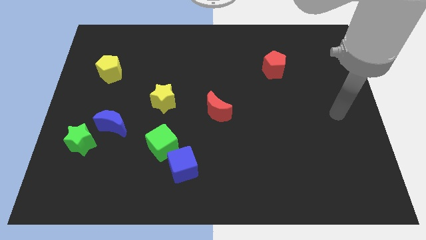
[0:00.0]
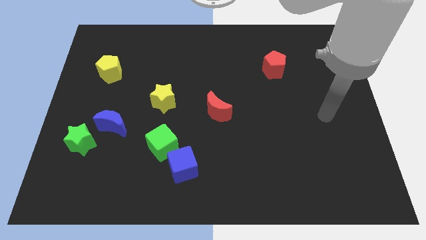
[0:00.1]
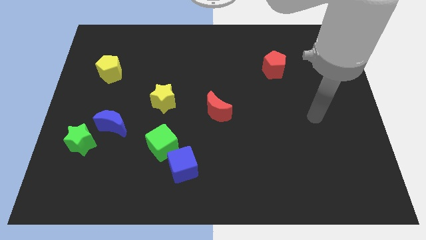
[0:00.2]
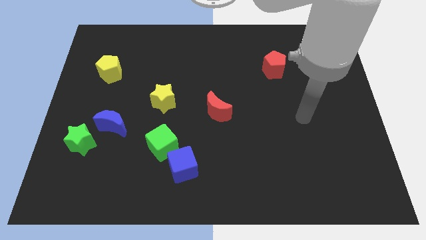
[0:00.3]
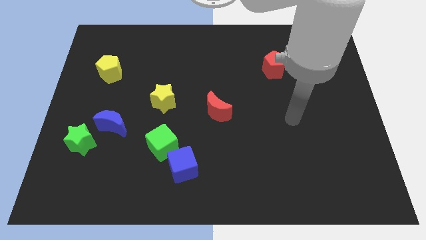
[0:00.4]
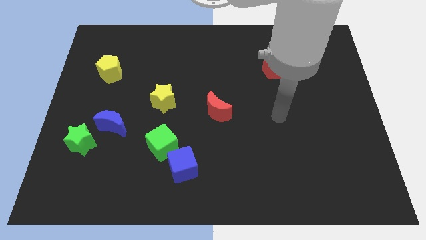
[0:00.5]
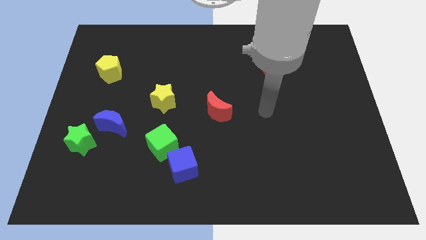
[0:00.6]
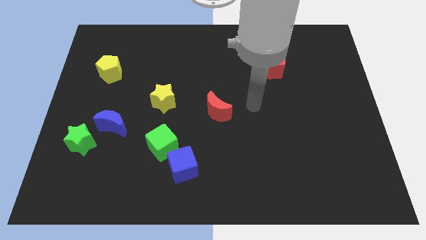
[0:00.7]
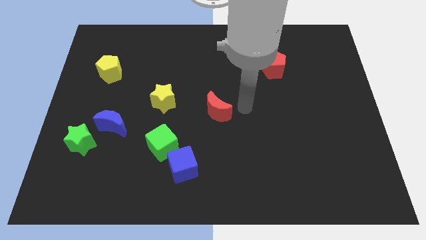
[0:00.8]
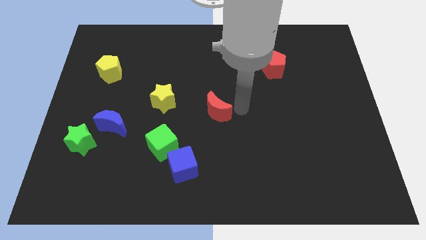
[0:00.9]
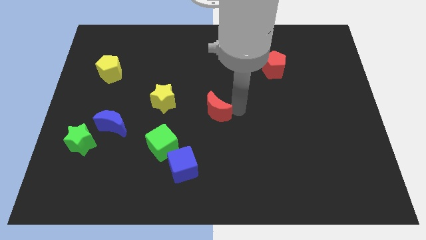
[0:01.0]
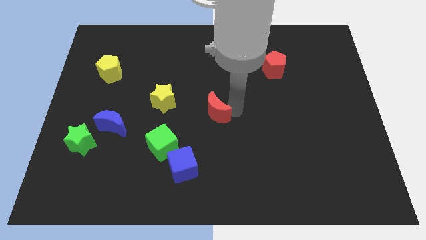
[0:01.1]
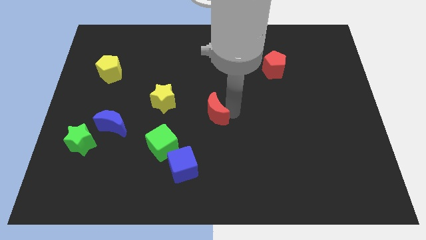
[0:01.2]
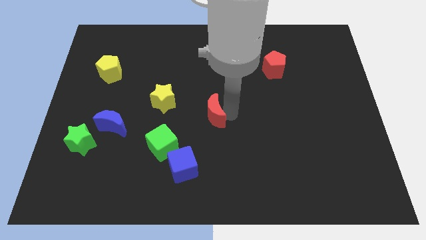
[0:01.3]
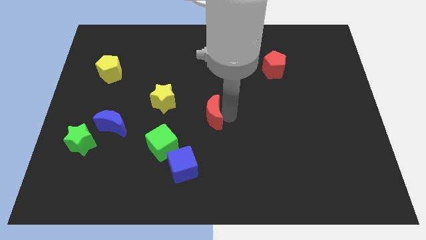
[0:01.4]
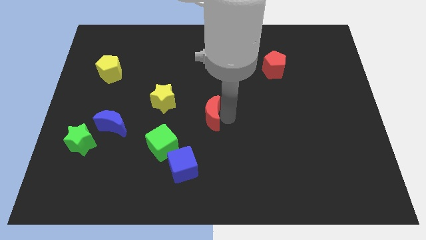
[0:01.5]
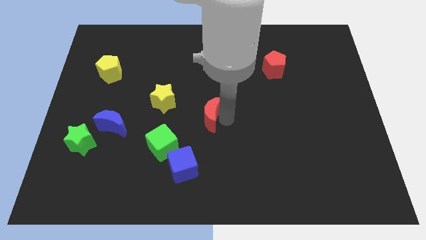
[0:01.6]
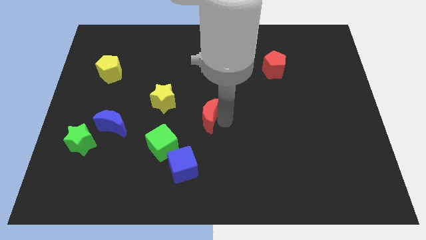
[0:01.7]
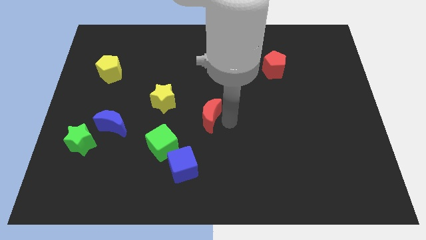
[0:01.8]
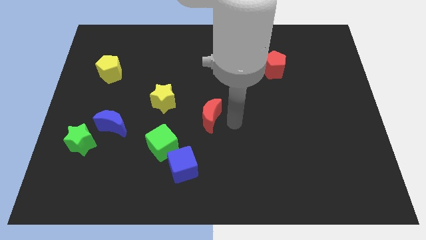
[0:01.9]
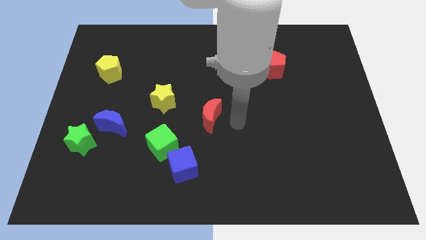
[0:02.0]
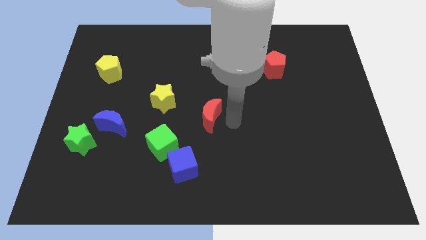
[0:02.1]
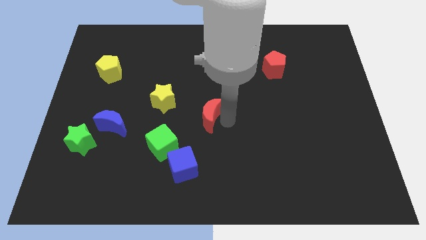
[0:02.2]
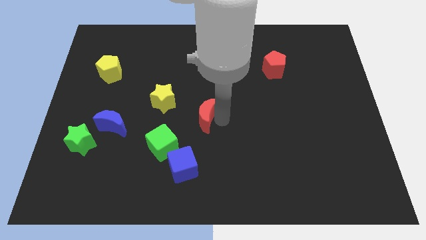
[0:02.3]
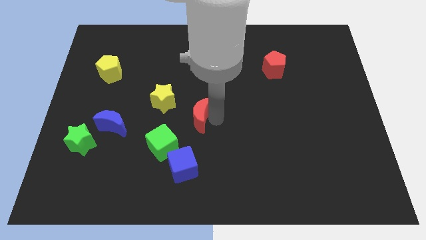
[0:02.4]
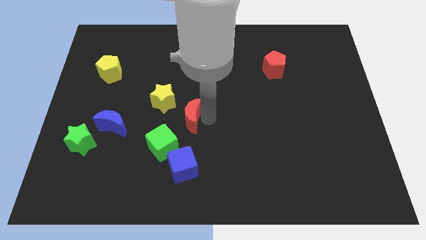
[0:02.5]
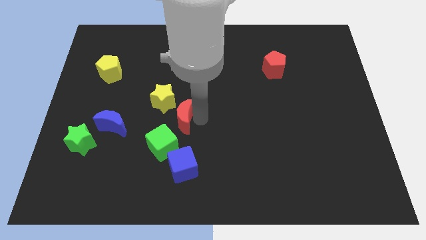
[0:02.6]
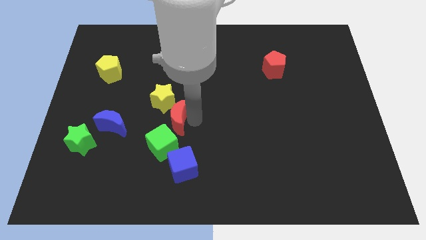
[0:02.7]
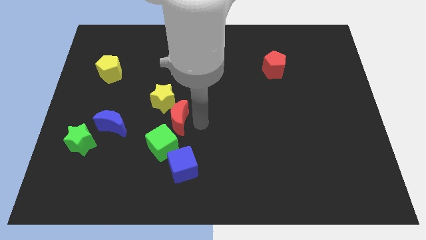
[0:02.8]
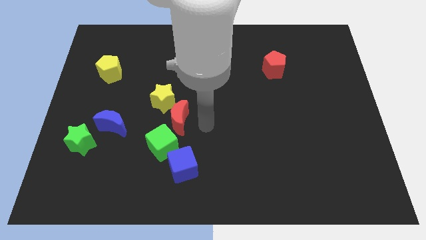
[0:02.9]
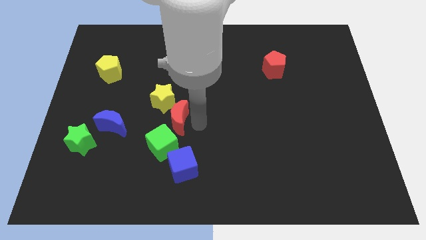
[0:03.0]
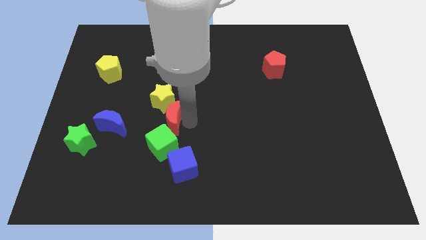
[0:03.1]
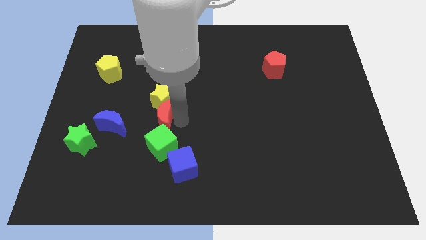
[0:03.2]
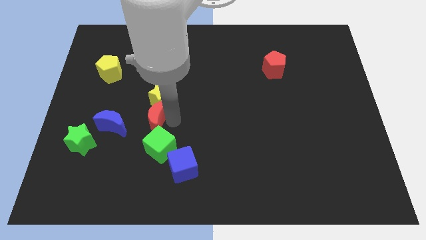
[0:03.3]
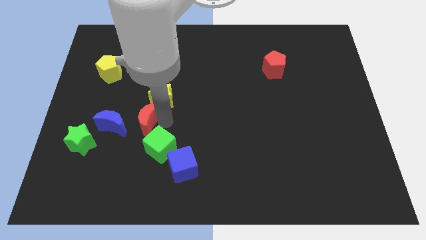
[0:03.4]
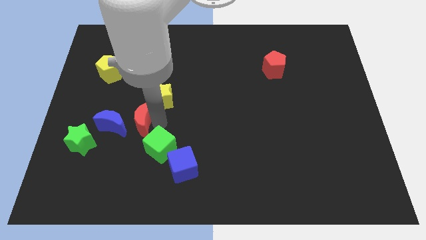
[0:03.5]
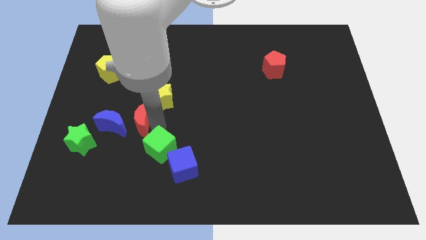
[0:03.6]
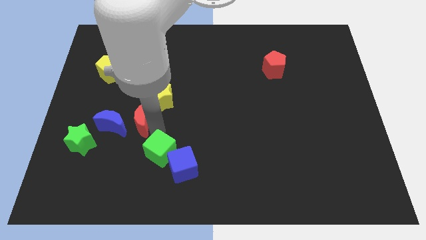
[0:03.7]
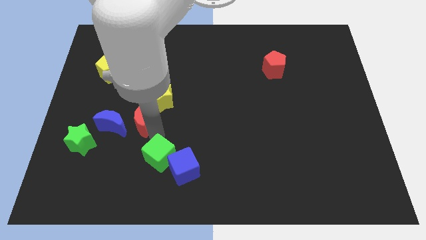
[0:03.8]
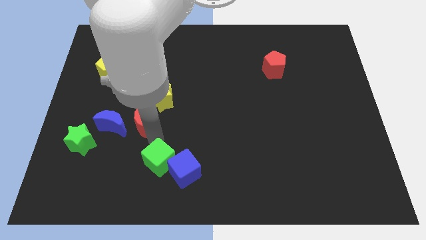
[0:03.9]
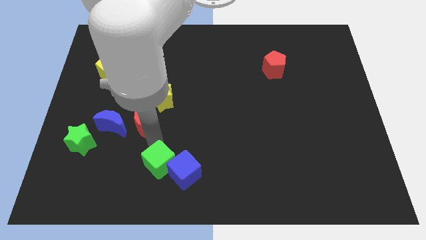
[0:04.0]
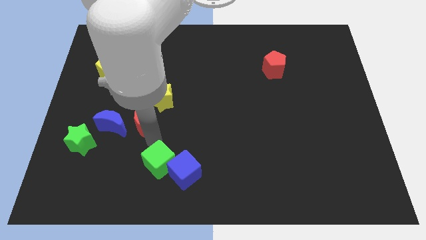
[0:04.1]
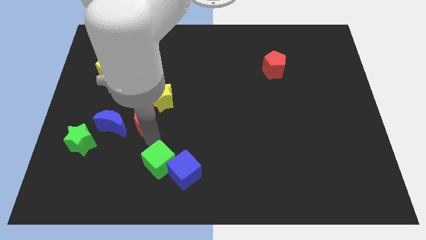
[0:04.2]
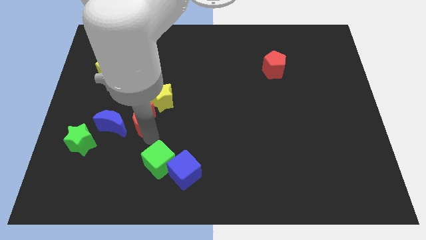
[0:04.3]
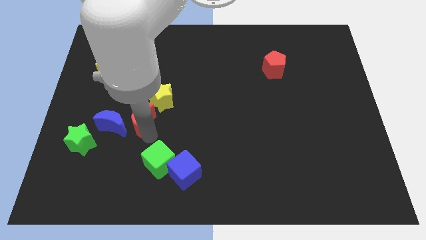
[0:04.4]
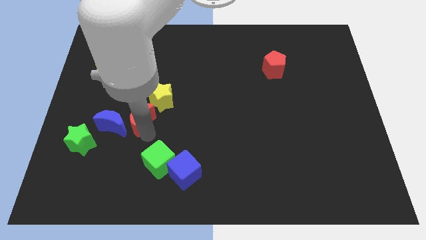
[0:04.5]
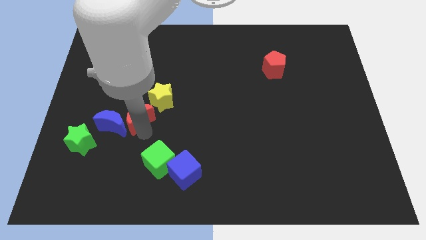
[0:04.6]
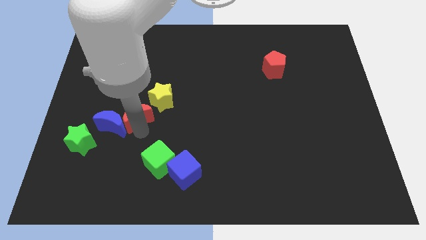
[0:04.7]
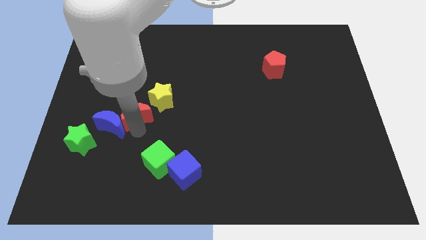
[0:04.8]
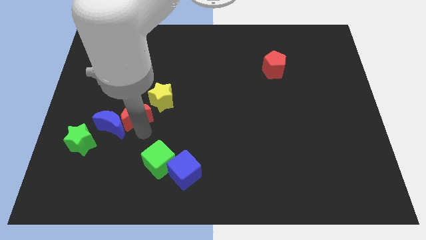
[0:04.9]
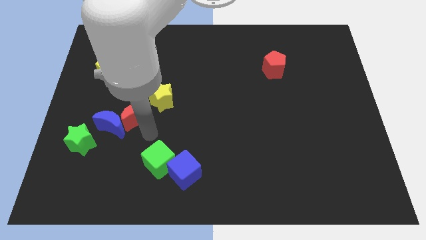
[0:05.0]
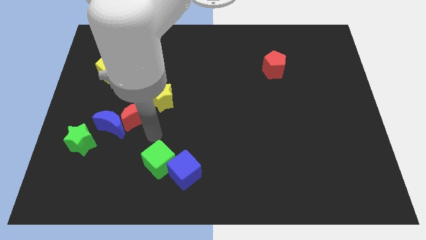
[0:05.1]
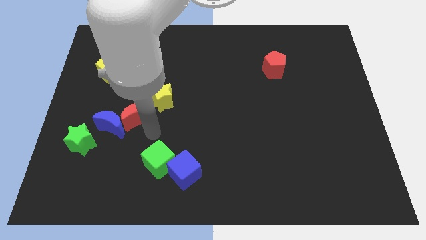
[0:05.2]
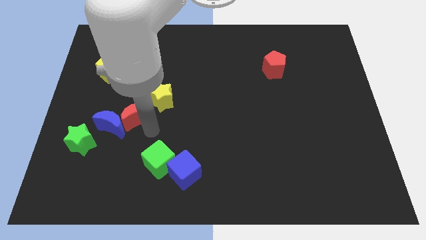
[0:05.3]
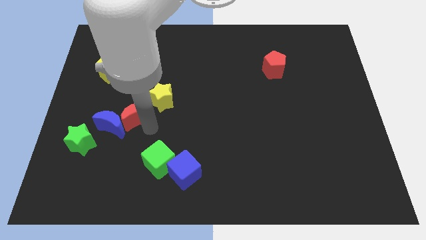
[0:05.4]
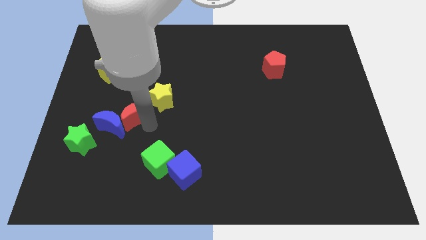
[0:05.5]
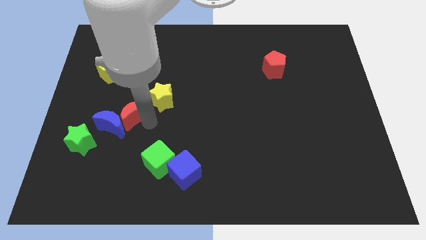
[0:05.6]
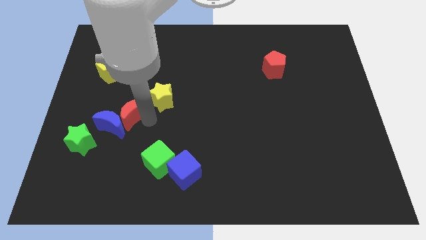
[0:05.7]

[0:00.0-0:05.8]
move the red moon left of the yellow star
